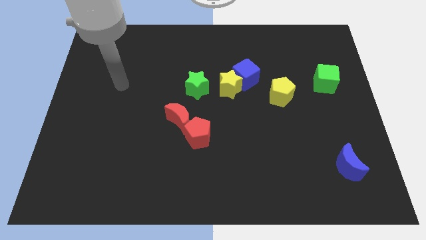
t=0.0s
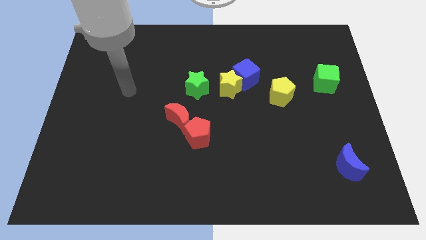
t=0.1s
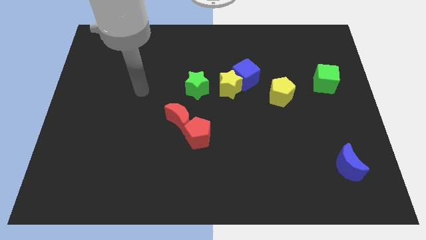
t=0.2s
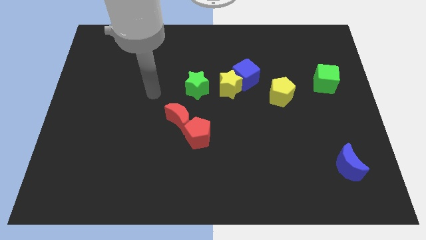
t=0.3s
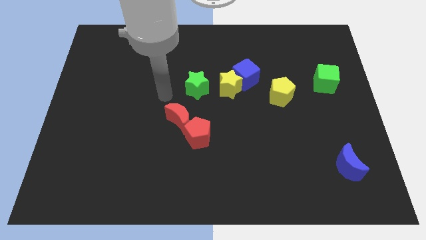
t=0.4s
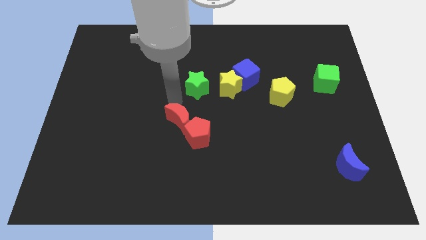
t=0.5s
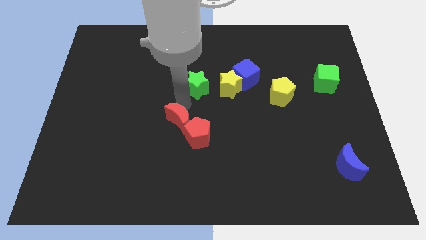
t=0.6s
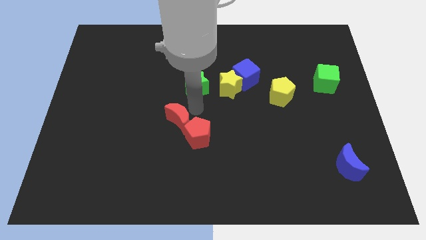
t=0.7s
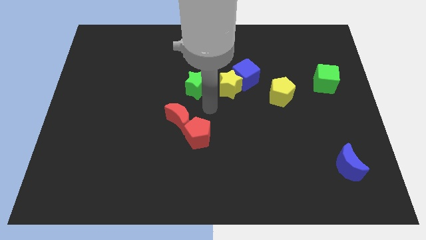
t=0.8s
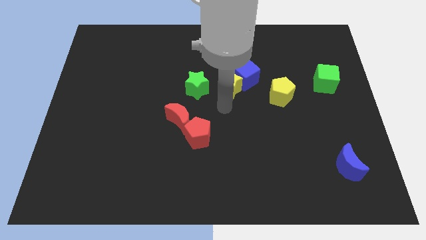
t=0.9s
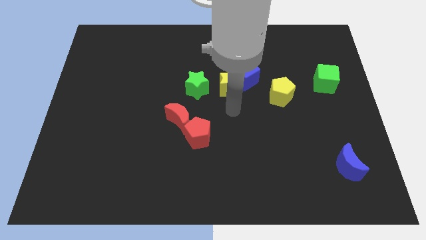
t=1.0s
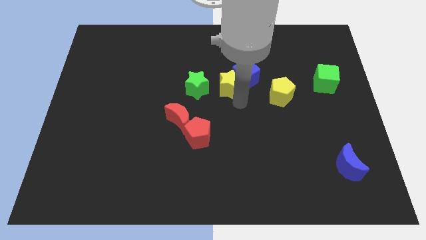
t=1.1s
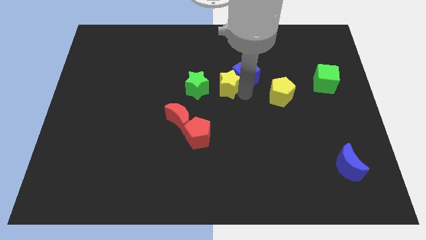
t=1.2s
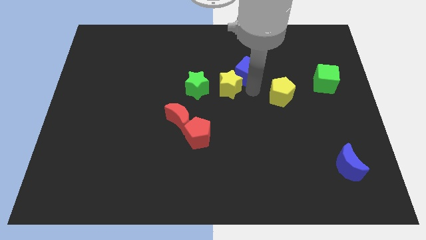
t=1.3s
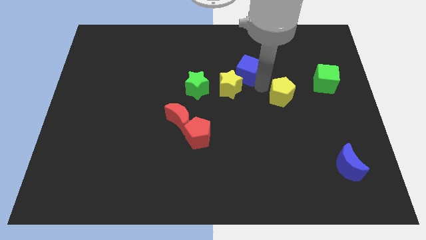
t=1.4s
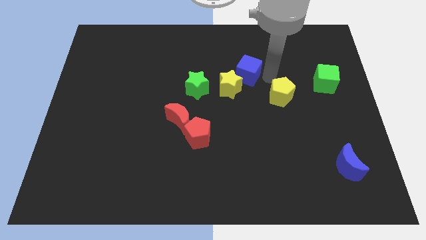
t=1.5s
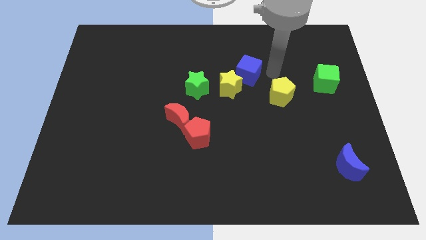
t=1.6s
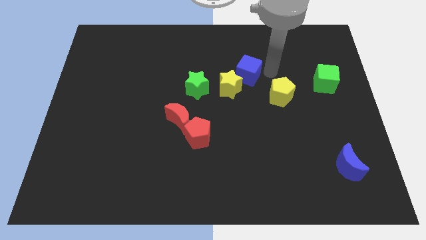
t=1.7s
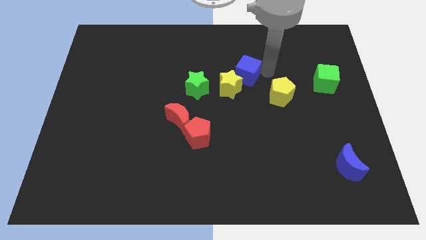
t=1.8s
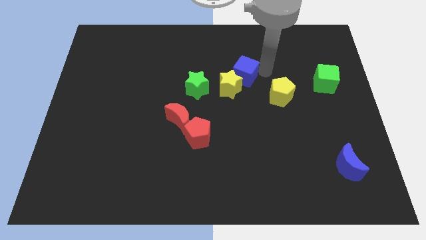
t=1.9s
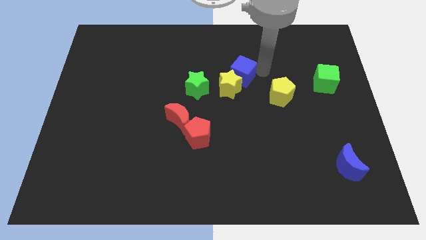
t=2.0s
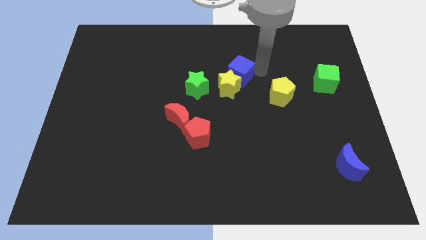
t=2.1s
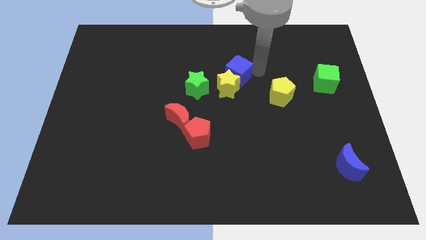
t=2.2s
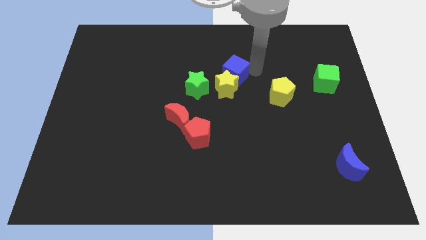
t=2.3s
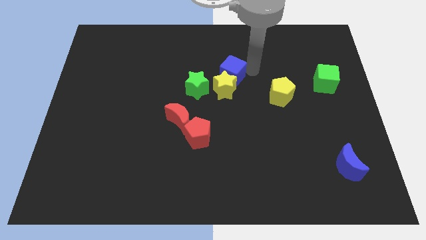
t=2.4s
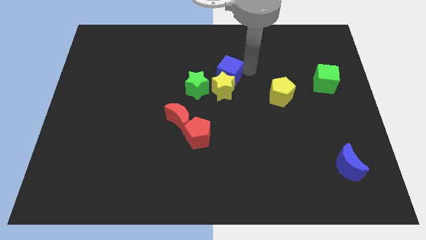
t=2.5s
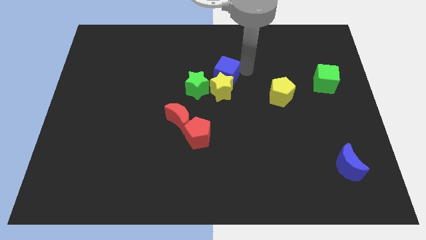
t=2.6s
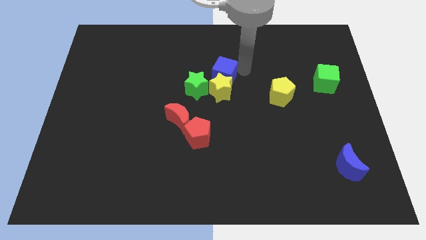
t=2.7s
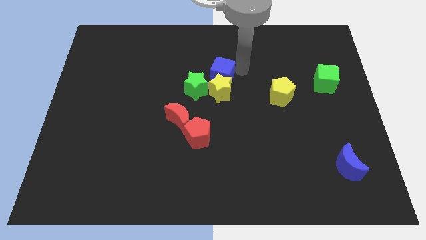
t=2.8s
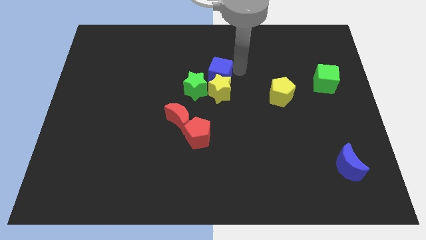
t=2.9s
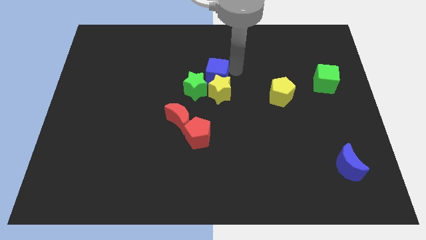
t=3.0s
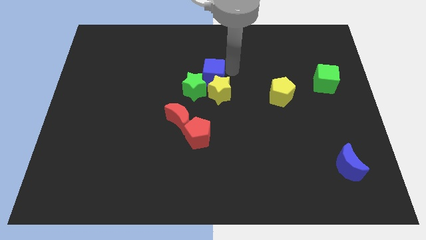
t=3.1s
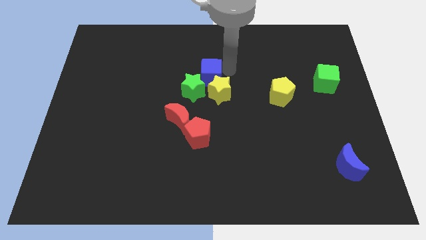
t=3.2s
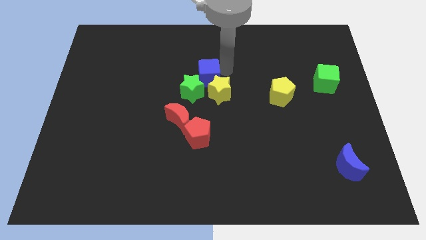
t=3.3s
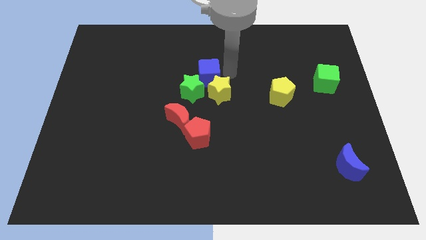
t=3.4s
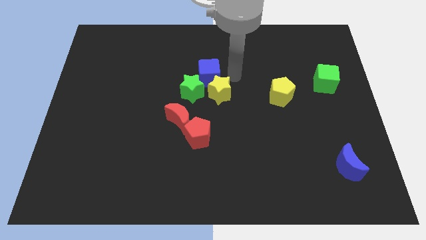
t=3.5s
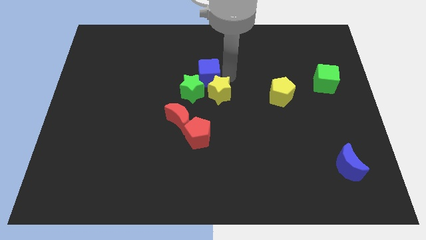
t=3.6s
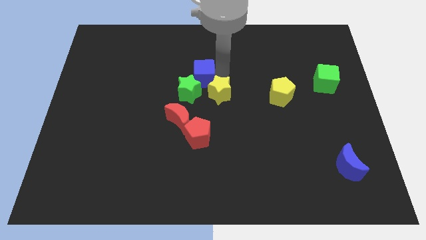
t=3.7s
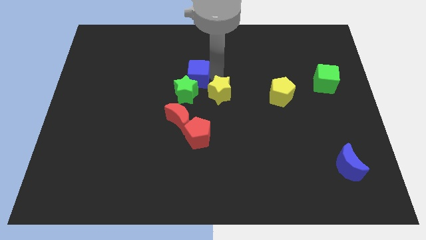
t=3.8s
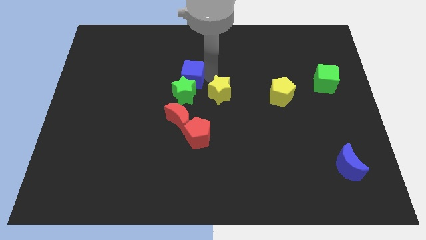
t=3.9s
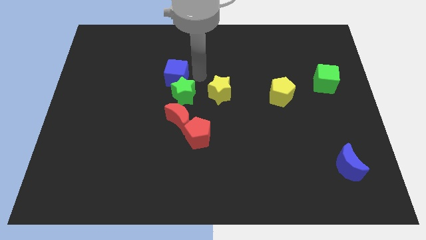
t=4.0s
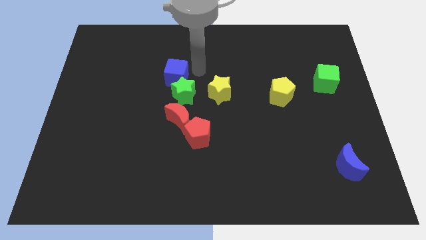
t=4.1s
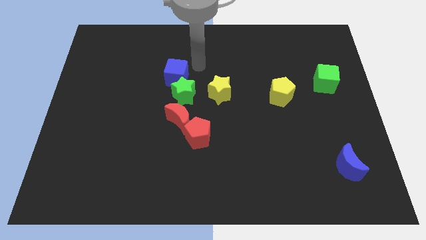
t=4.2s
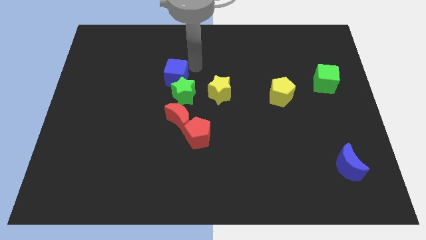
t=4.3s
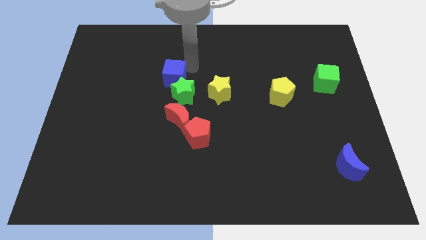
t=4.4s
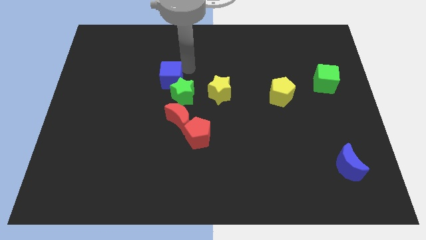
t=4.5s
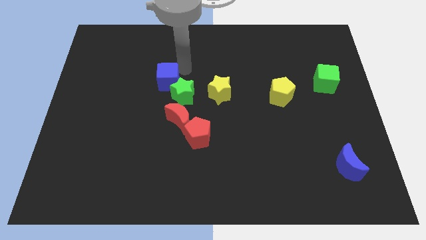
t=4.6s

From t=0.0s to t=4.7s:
move the blue cube left of the green star

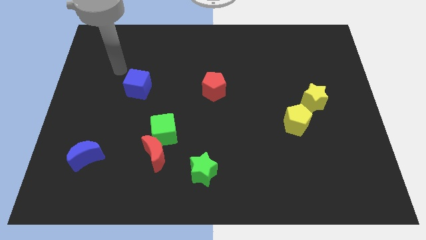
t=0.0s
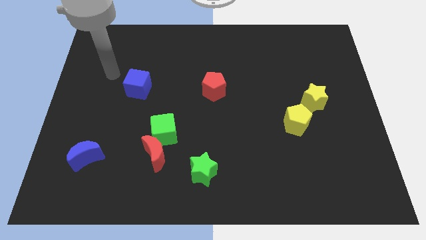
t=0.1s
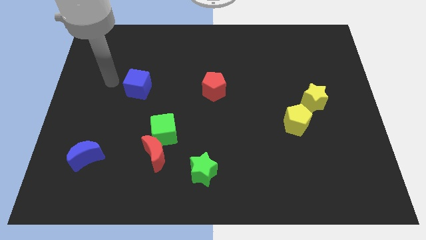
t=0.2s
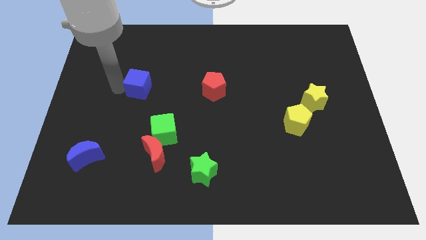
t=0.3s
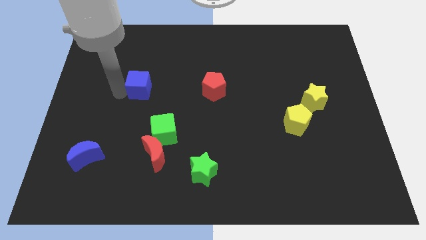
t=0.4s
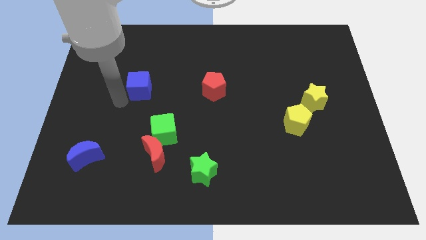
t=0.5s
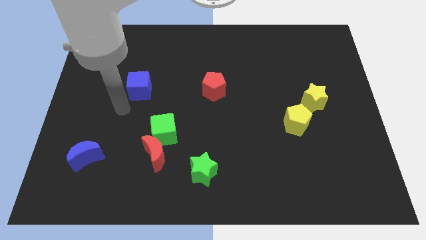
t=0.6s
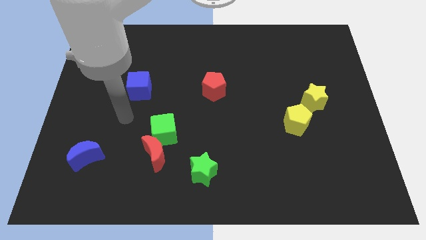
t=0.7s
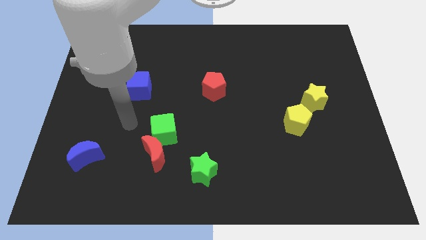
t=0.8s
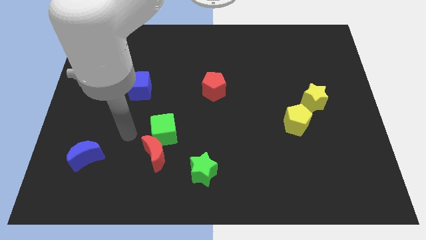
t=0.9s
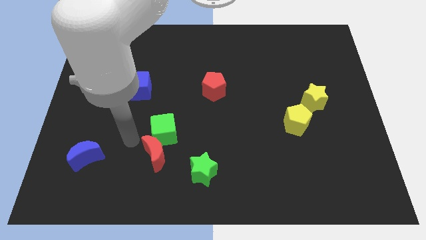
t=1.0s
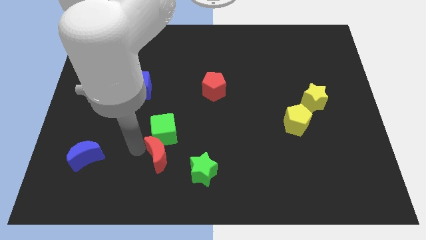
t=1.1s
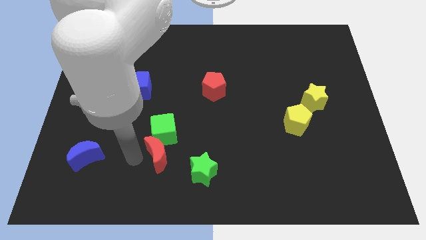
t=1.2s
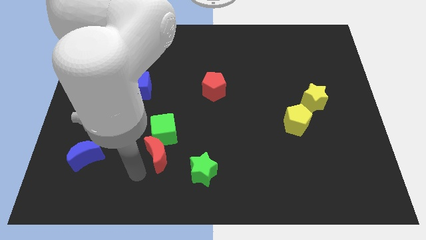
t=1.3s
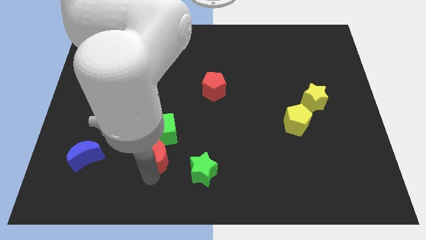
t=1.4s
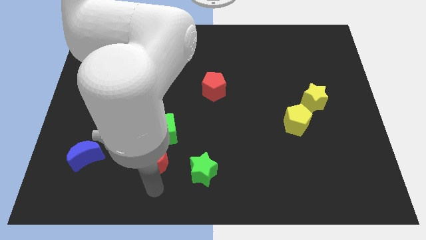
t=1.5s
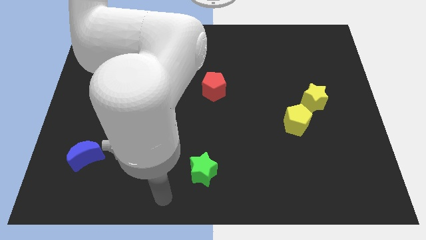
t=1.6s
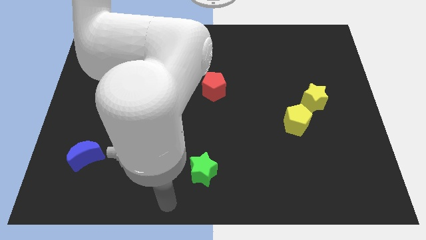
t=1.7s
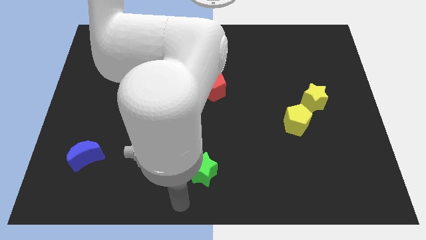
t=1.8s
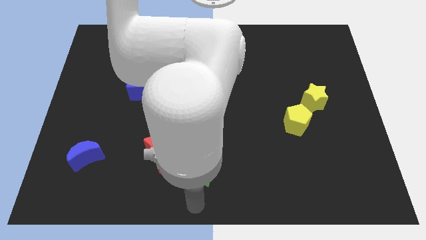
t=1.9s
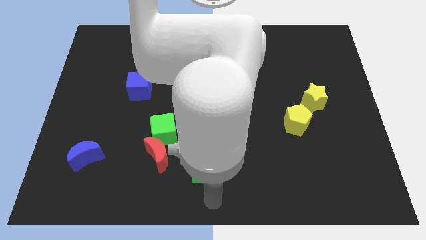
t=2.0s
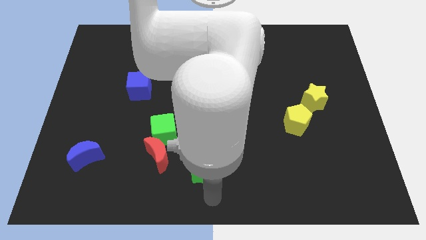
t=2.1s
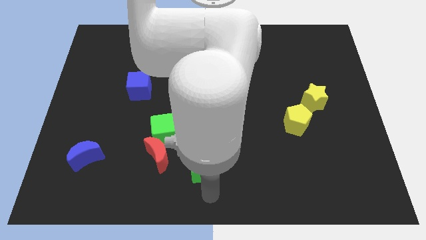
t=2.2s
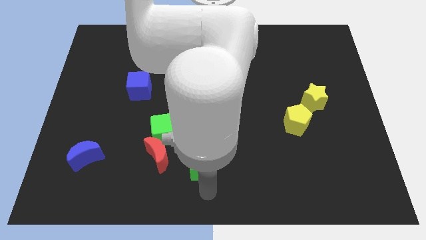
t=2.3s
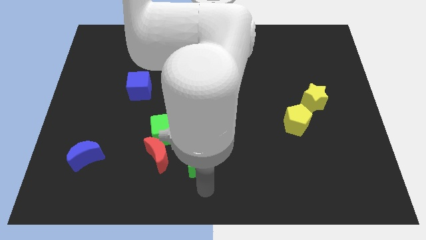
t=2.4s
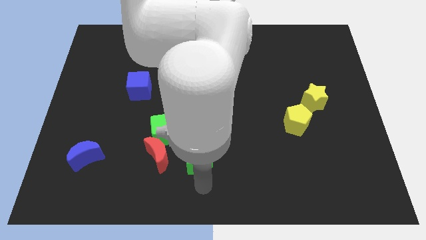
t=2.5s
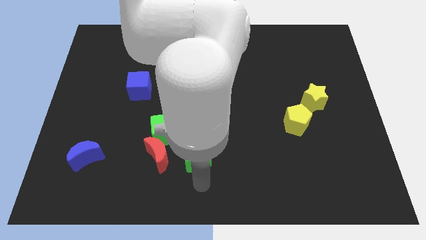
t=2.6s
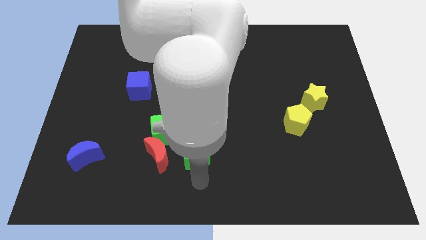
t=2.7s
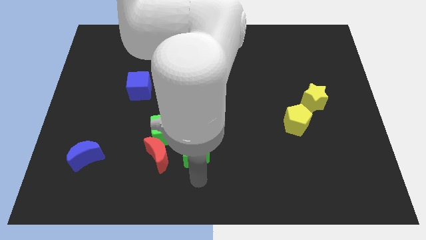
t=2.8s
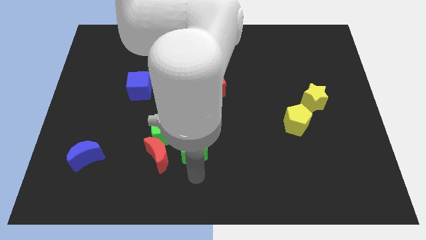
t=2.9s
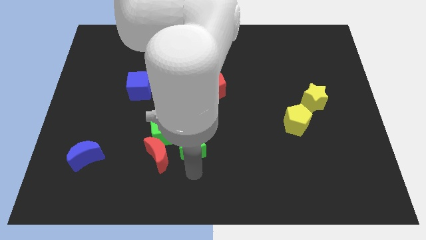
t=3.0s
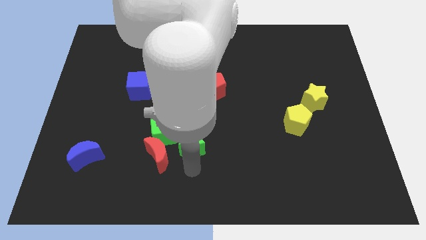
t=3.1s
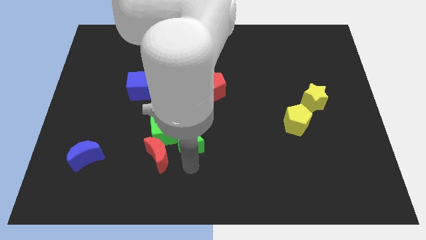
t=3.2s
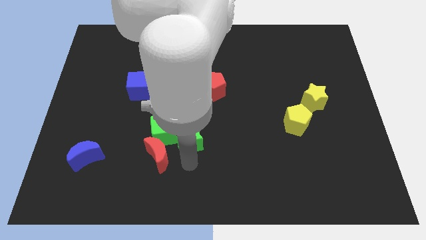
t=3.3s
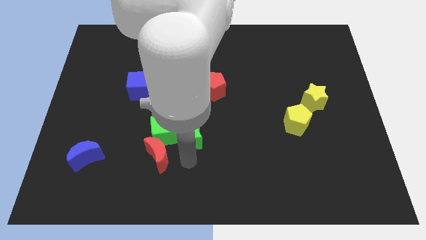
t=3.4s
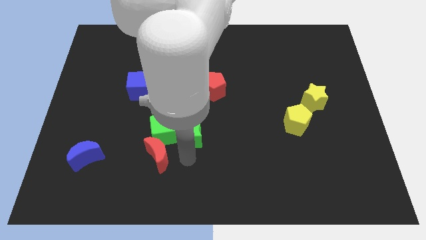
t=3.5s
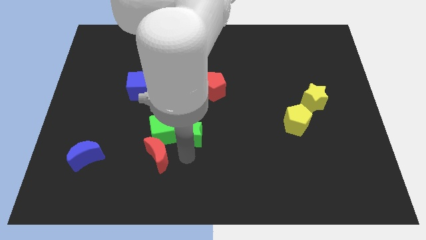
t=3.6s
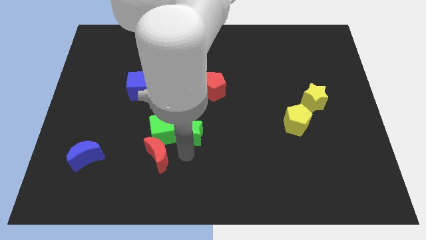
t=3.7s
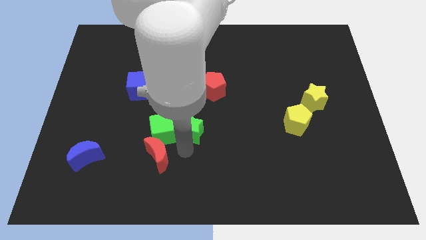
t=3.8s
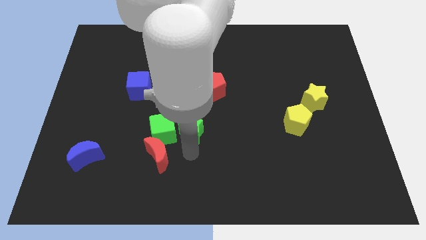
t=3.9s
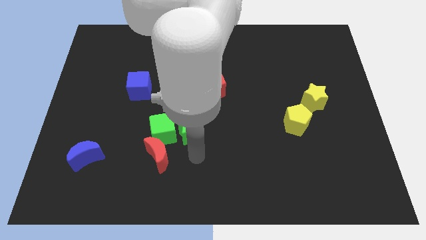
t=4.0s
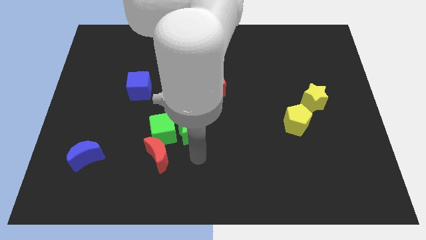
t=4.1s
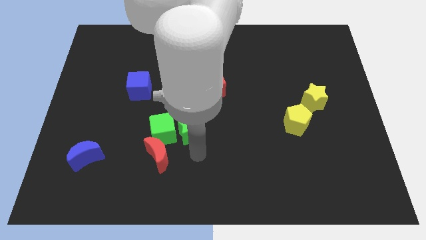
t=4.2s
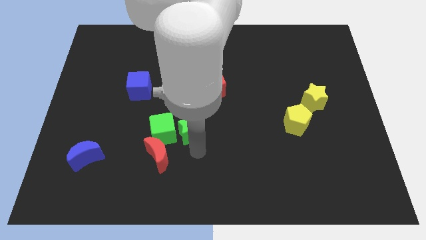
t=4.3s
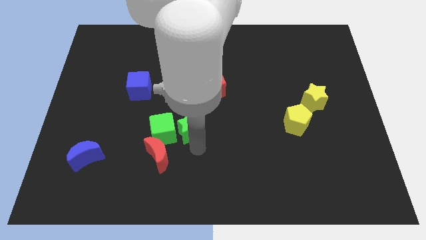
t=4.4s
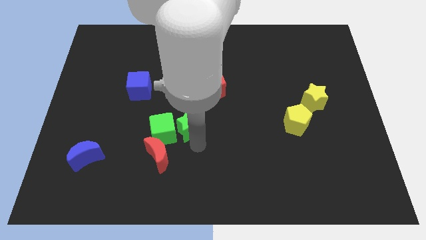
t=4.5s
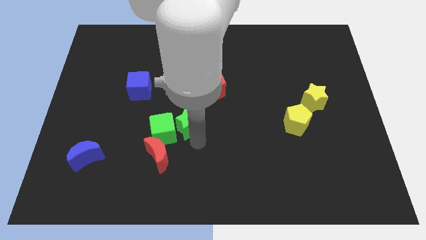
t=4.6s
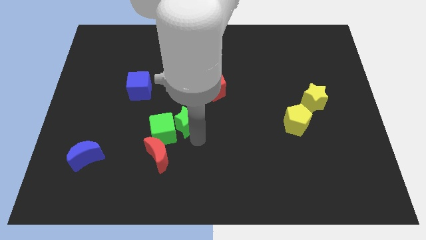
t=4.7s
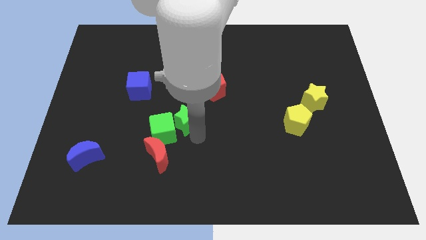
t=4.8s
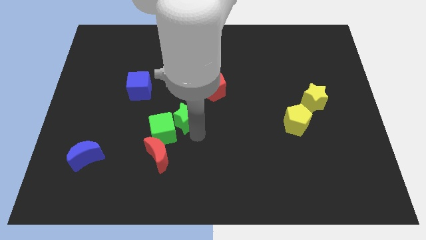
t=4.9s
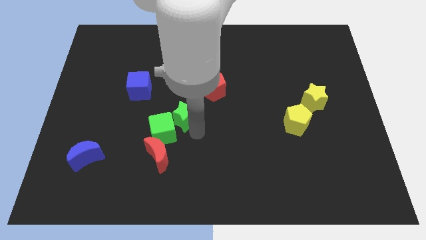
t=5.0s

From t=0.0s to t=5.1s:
push the green star above the green cube
